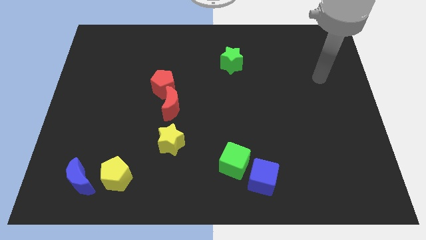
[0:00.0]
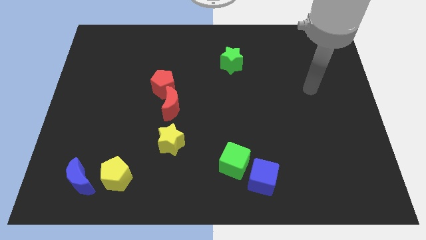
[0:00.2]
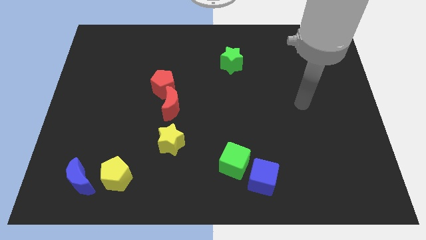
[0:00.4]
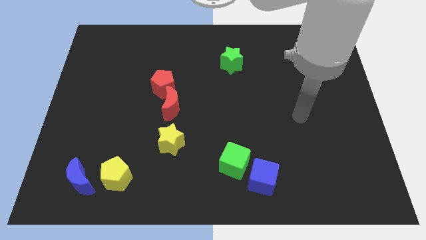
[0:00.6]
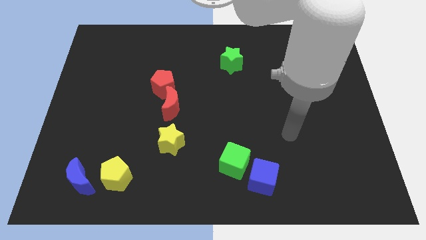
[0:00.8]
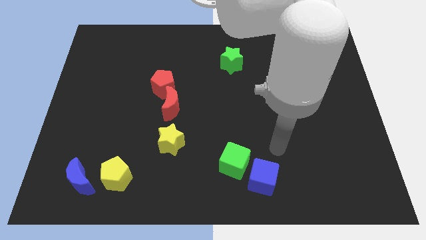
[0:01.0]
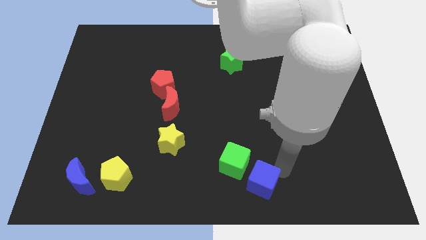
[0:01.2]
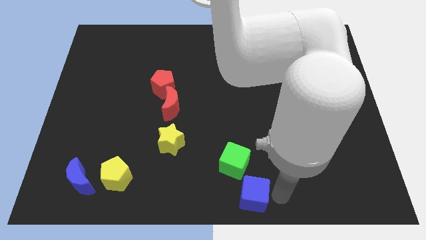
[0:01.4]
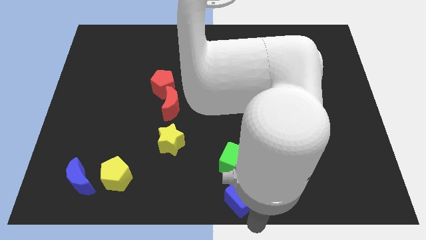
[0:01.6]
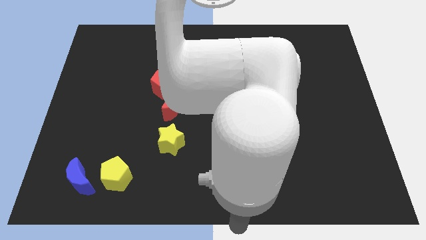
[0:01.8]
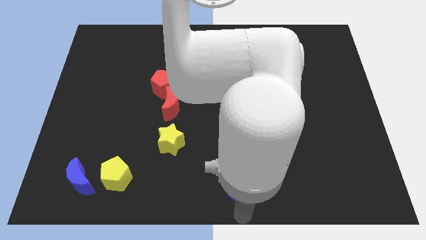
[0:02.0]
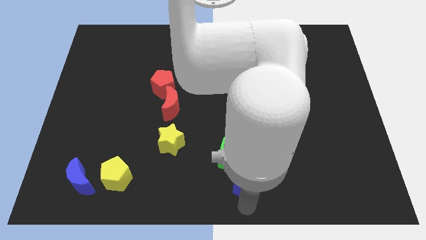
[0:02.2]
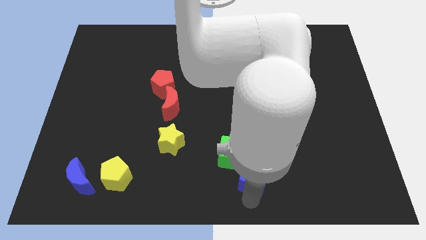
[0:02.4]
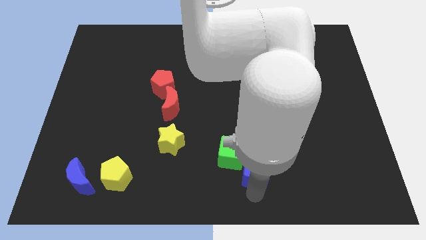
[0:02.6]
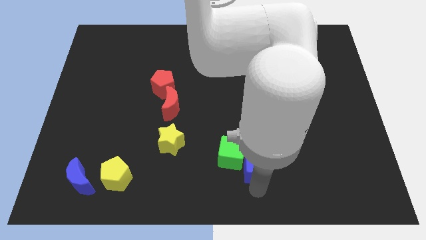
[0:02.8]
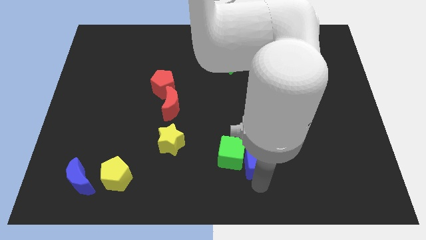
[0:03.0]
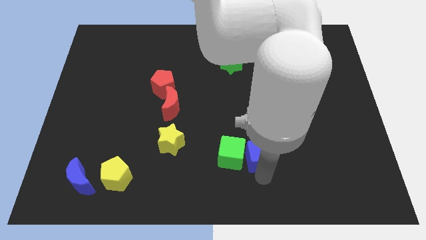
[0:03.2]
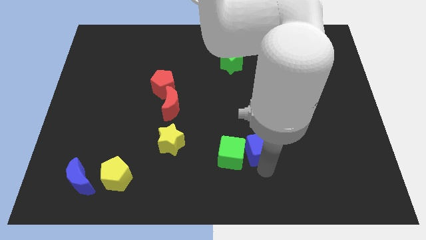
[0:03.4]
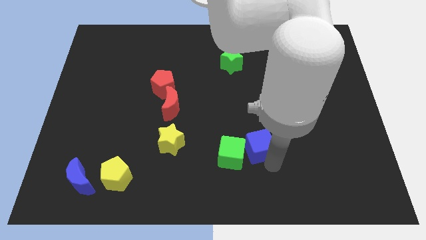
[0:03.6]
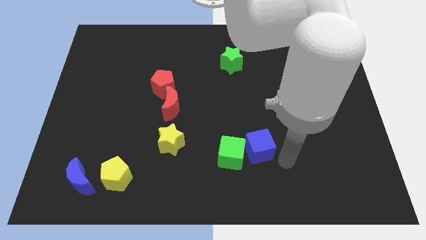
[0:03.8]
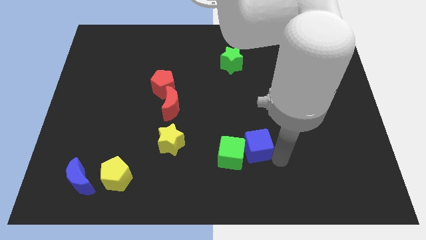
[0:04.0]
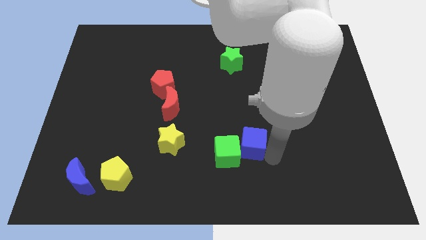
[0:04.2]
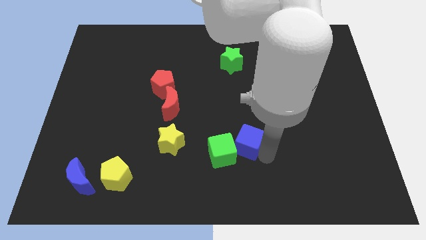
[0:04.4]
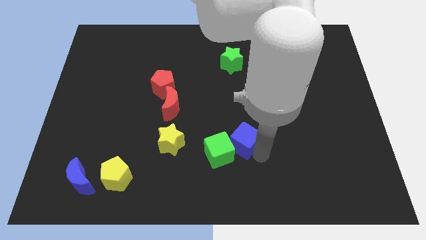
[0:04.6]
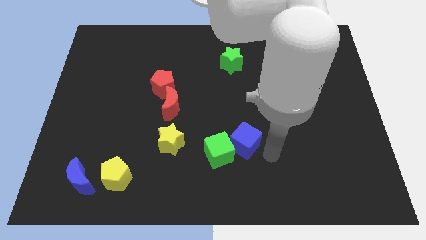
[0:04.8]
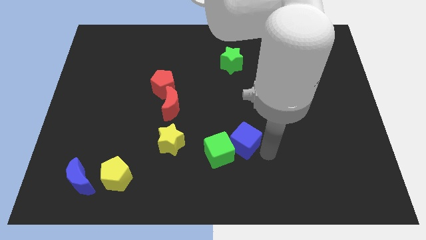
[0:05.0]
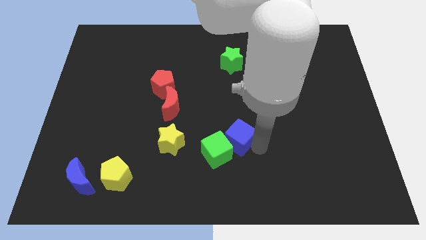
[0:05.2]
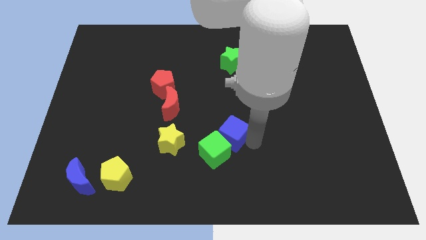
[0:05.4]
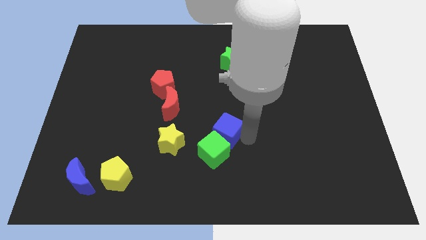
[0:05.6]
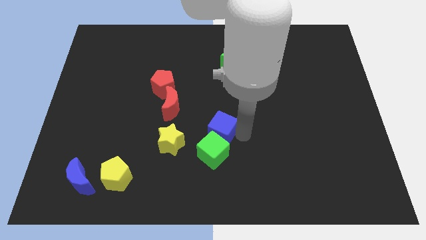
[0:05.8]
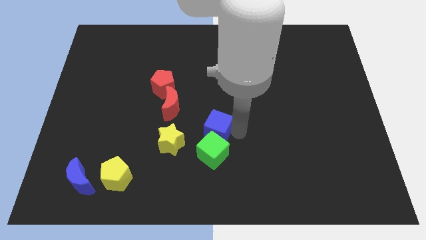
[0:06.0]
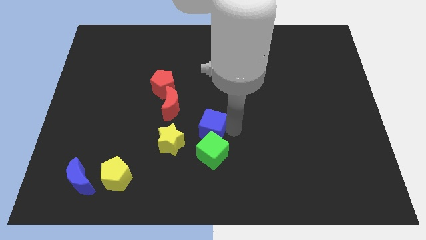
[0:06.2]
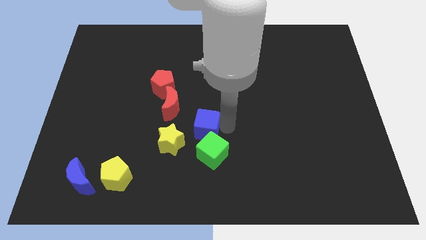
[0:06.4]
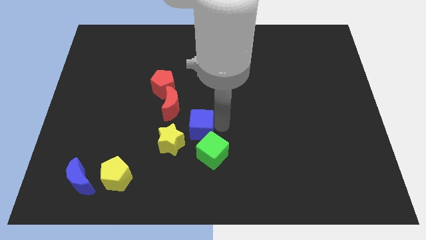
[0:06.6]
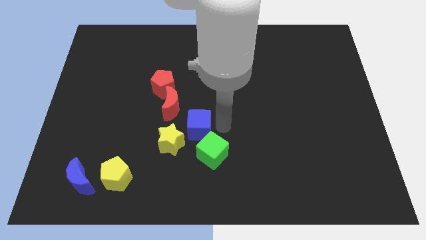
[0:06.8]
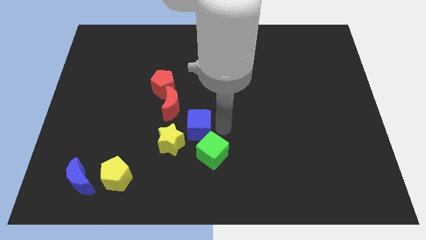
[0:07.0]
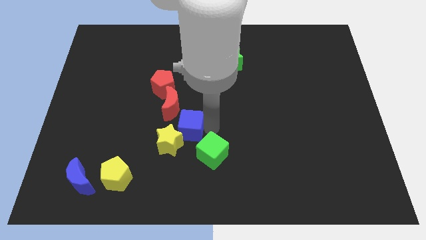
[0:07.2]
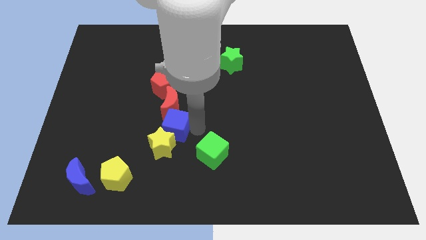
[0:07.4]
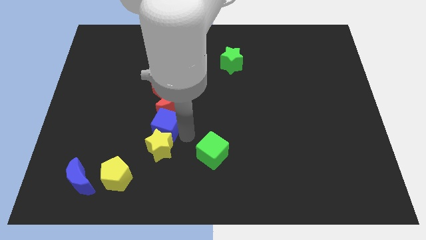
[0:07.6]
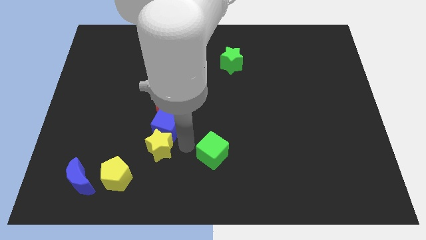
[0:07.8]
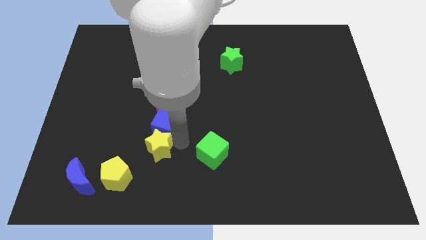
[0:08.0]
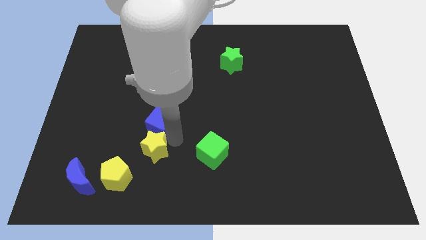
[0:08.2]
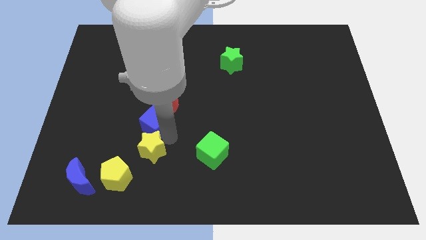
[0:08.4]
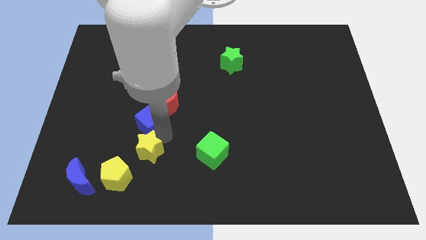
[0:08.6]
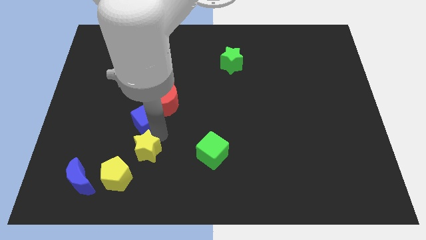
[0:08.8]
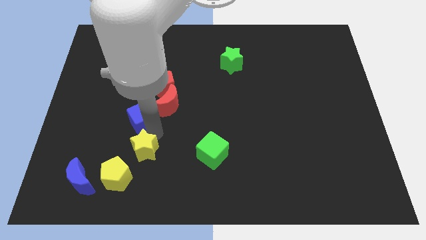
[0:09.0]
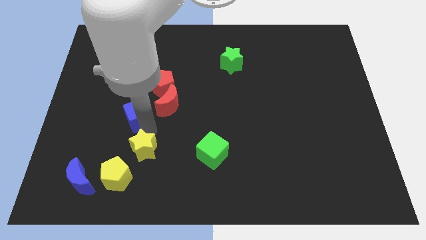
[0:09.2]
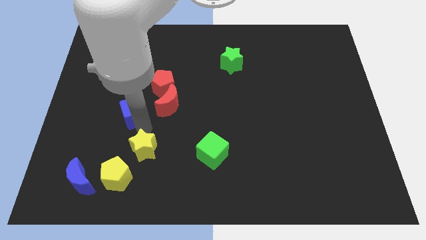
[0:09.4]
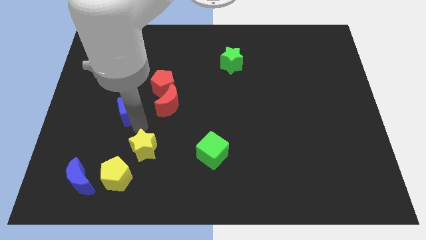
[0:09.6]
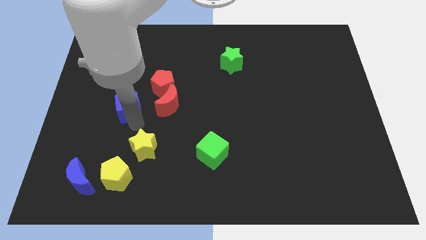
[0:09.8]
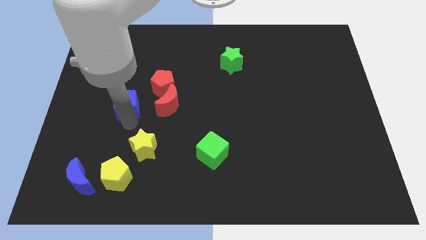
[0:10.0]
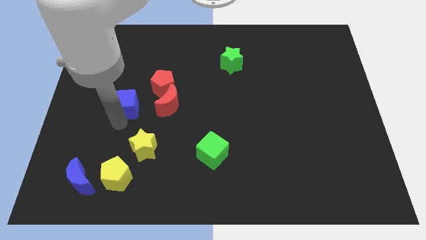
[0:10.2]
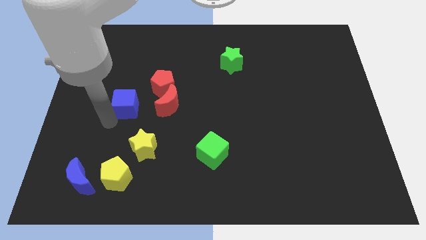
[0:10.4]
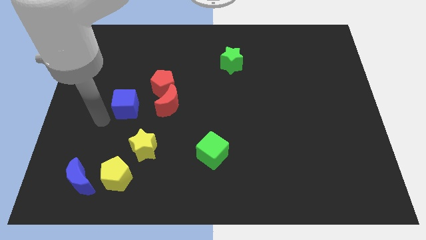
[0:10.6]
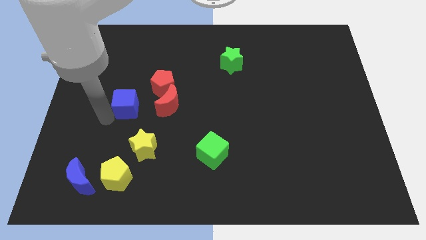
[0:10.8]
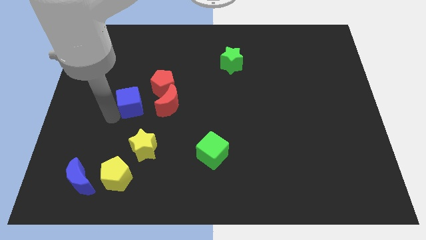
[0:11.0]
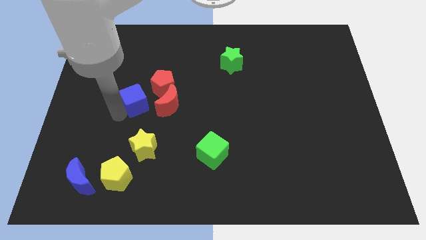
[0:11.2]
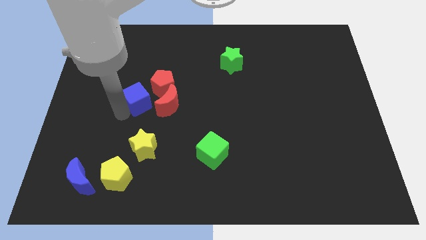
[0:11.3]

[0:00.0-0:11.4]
move the blue cube diagonally up and to the left of the red moon

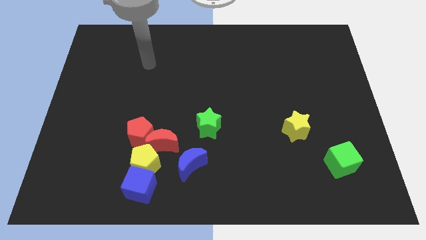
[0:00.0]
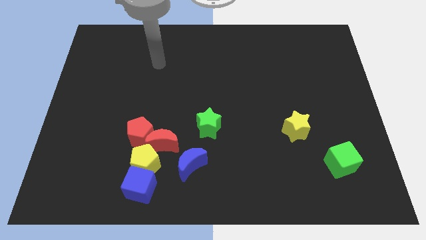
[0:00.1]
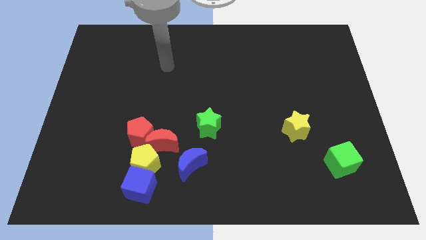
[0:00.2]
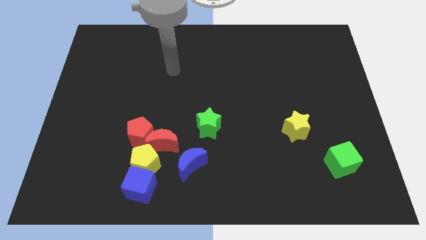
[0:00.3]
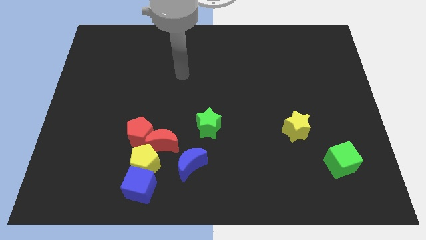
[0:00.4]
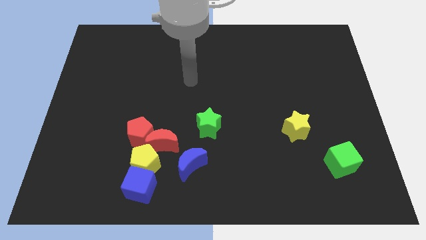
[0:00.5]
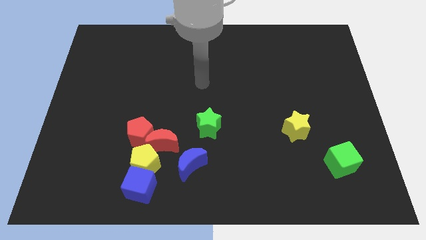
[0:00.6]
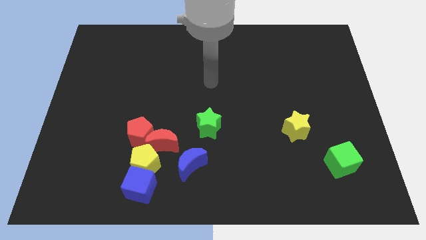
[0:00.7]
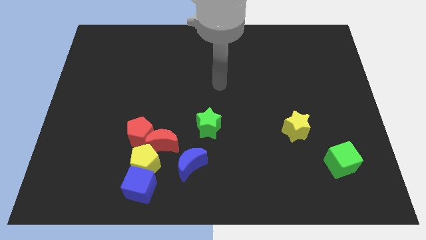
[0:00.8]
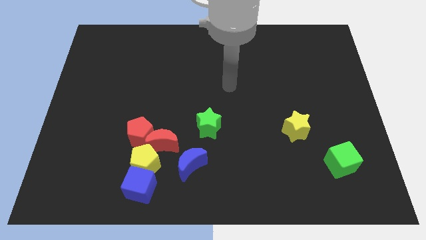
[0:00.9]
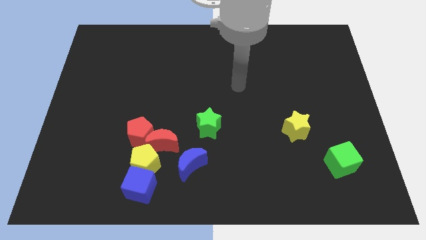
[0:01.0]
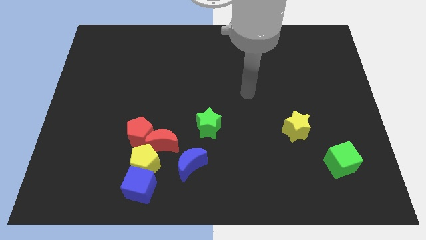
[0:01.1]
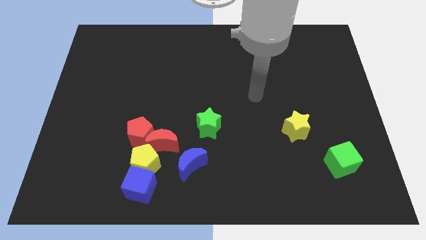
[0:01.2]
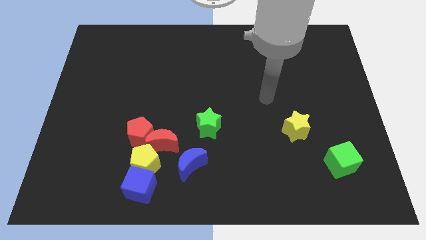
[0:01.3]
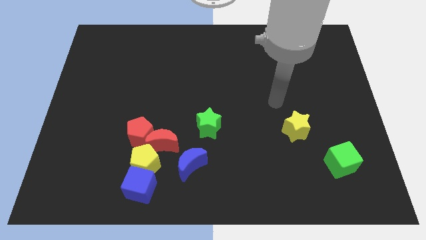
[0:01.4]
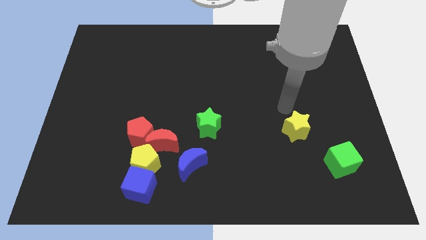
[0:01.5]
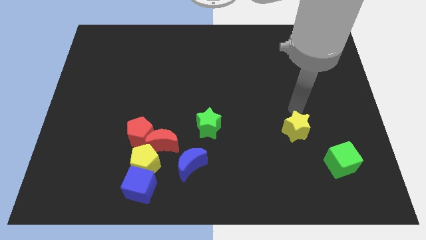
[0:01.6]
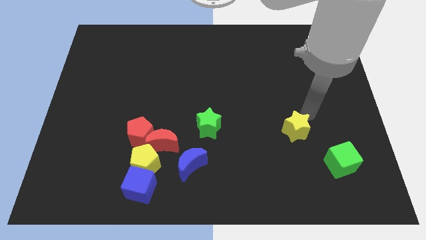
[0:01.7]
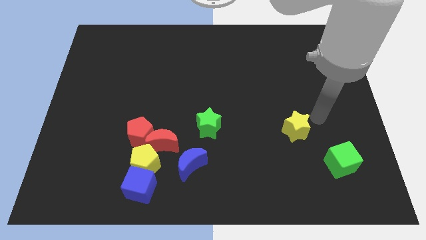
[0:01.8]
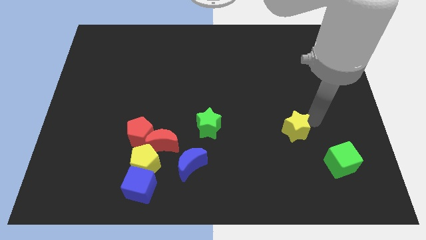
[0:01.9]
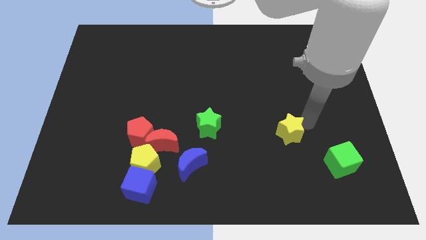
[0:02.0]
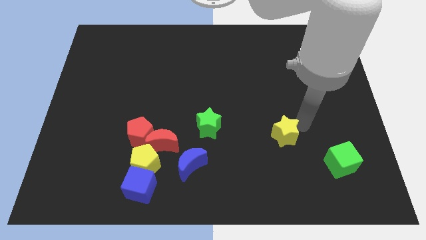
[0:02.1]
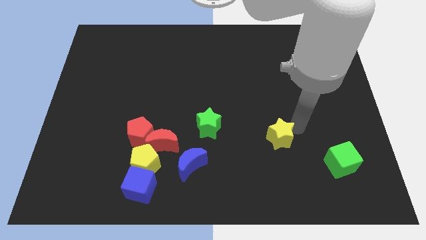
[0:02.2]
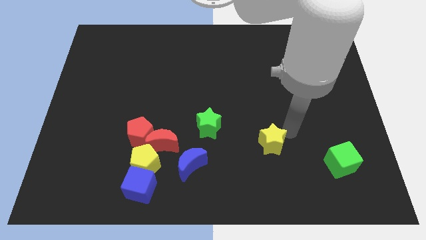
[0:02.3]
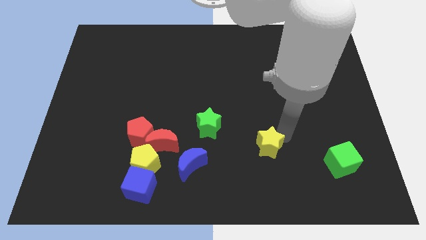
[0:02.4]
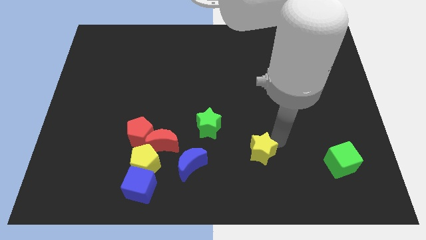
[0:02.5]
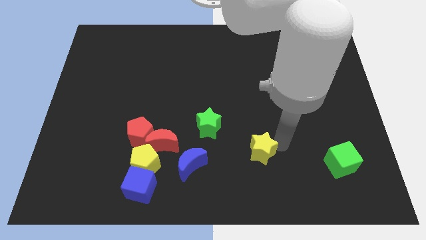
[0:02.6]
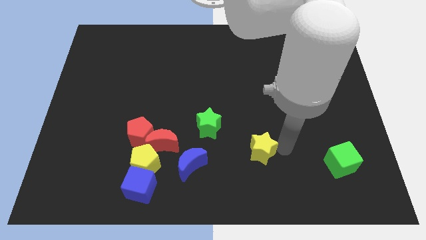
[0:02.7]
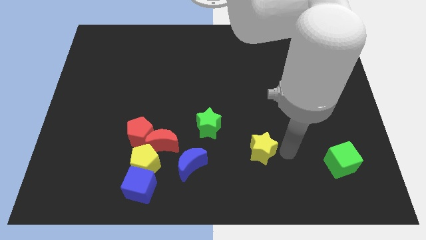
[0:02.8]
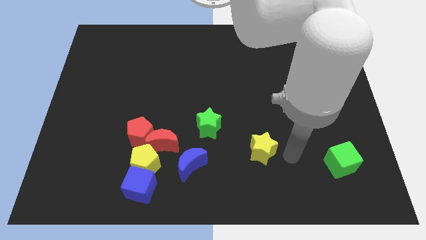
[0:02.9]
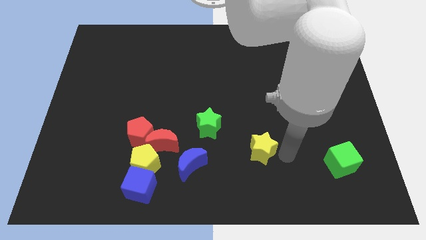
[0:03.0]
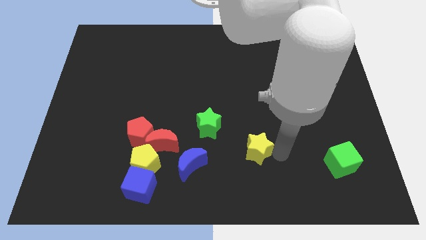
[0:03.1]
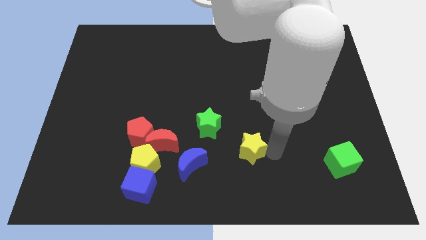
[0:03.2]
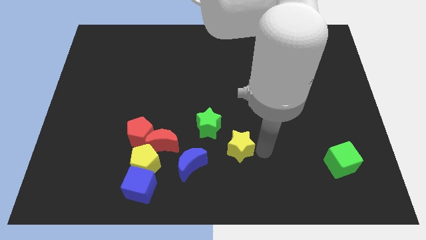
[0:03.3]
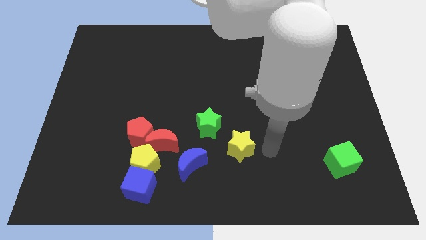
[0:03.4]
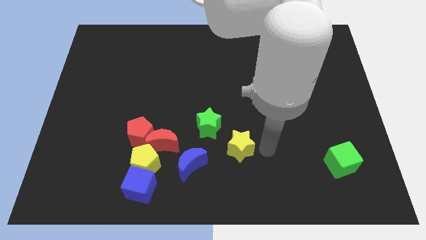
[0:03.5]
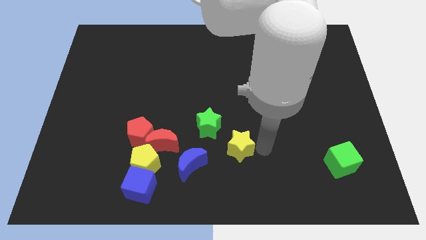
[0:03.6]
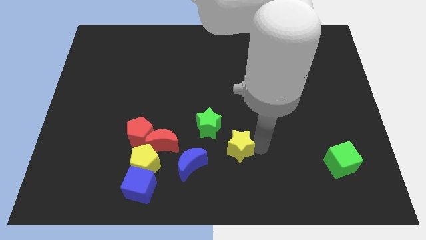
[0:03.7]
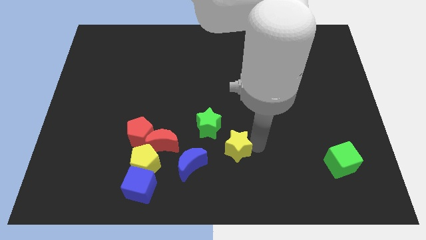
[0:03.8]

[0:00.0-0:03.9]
put the yellow star just right of the red moon
